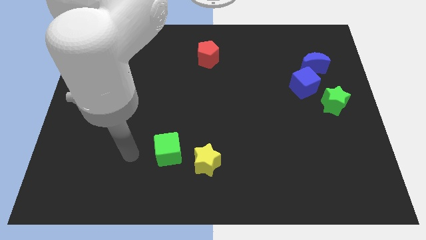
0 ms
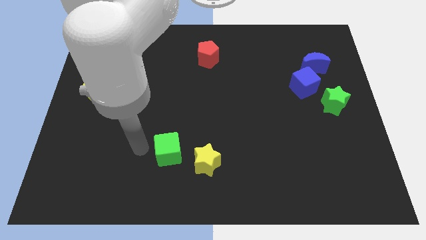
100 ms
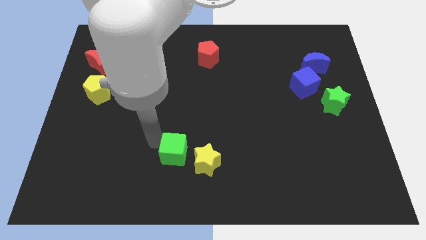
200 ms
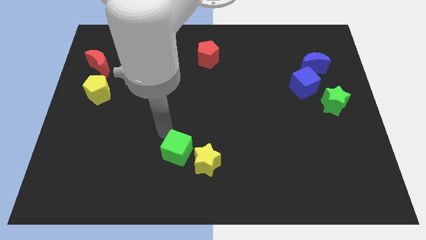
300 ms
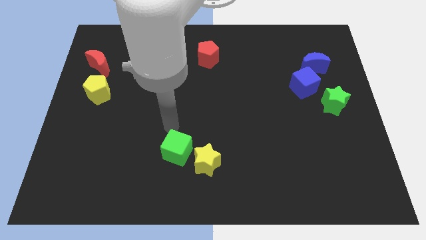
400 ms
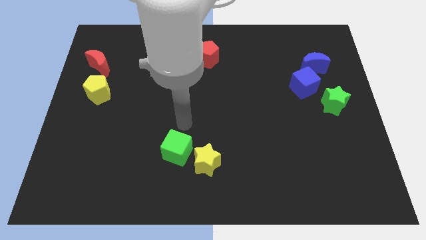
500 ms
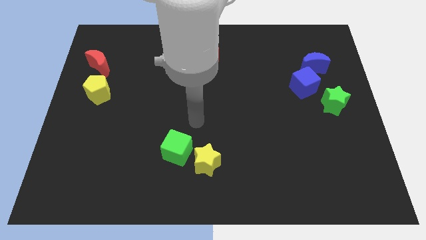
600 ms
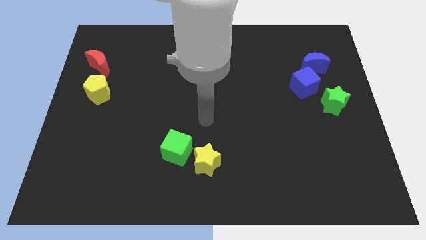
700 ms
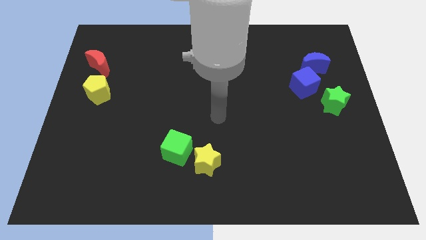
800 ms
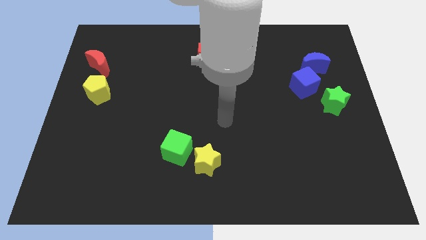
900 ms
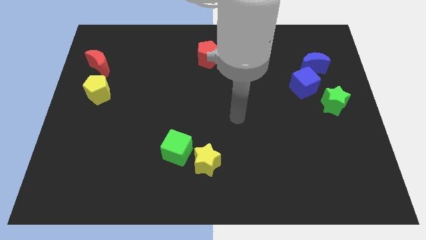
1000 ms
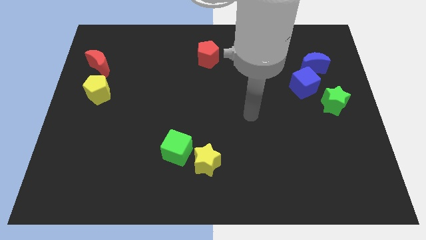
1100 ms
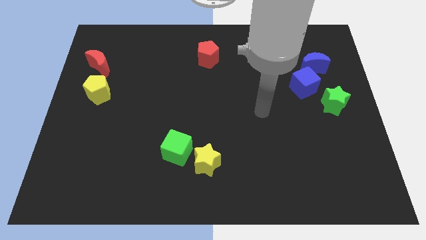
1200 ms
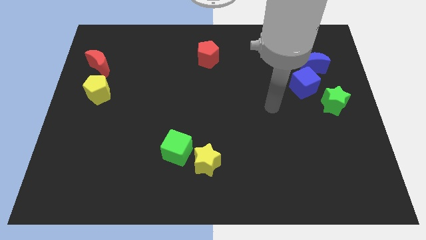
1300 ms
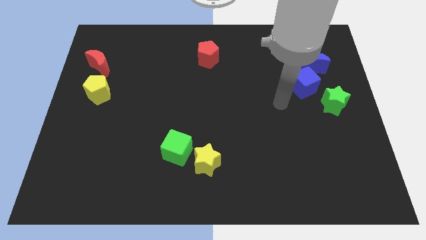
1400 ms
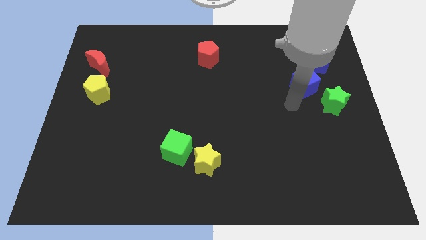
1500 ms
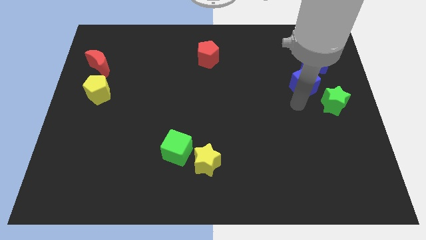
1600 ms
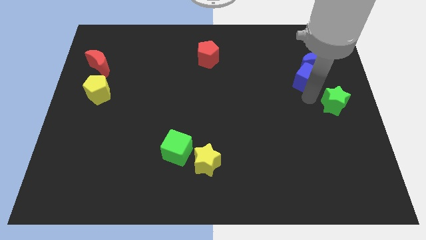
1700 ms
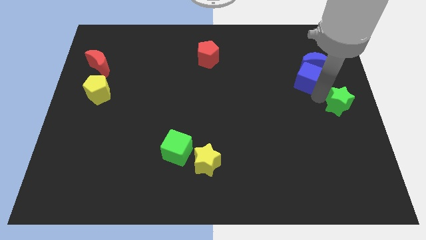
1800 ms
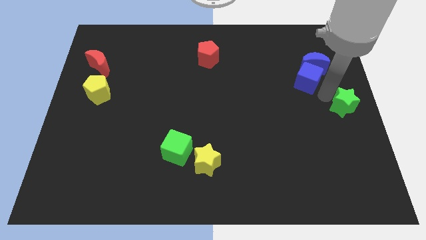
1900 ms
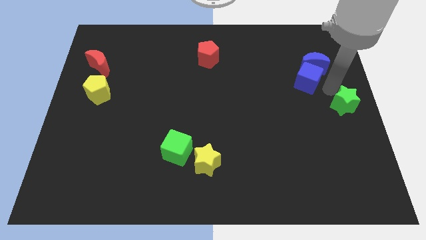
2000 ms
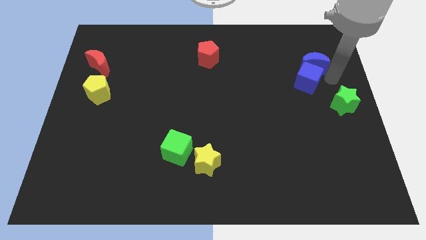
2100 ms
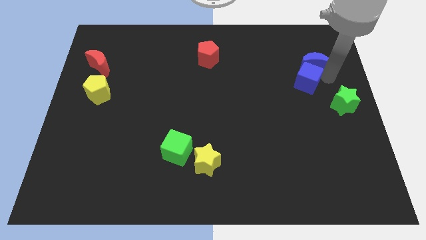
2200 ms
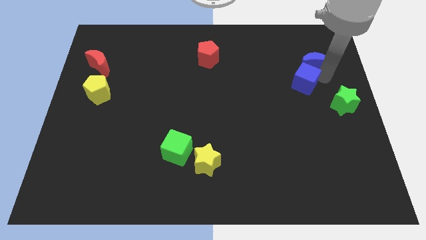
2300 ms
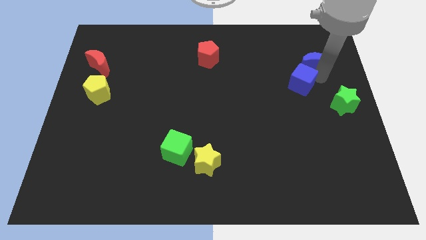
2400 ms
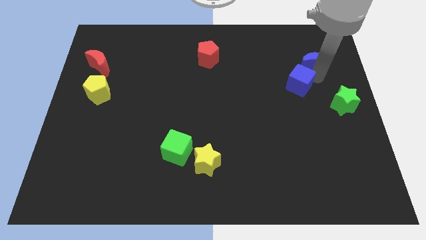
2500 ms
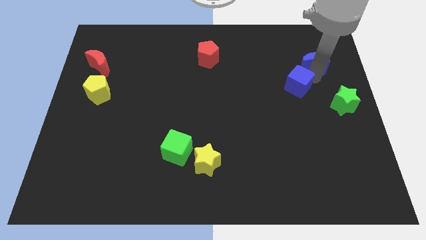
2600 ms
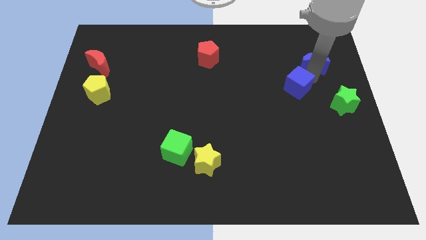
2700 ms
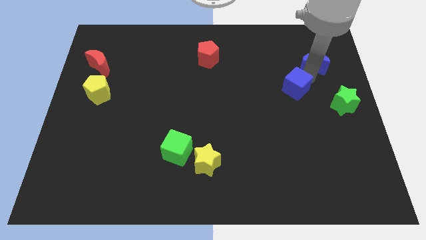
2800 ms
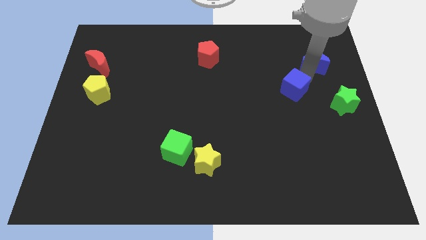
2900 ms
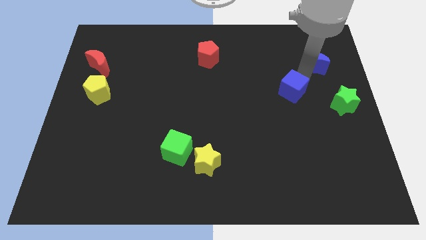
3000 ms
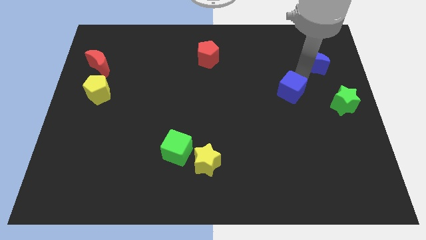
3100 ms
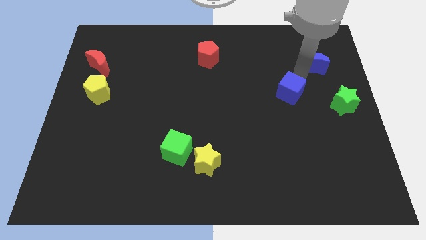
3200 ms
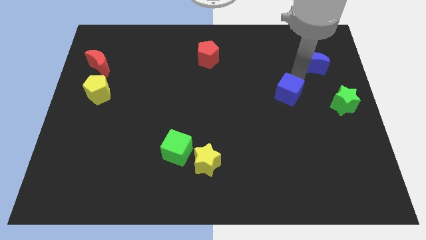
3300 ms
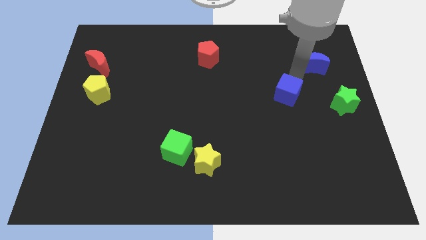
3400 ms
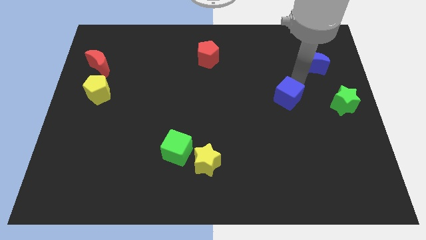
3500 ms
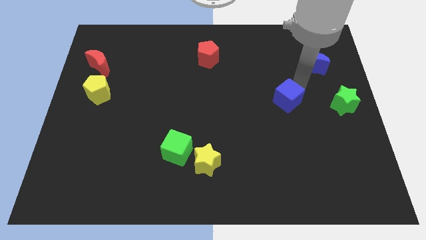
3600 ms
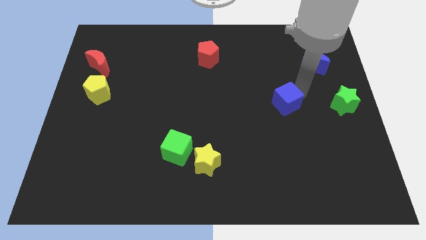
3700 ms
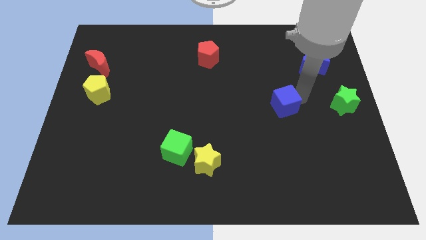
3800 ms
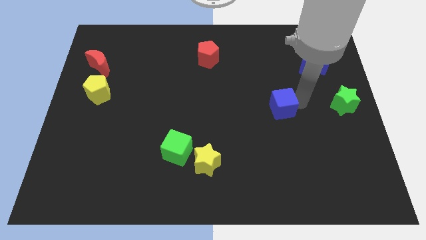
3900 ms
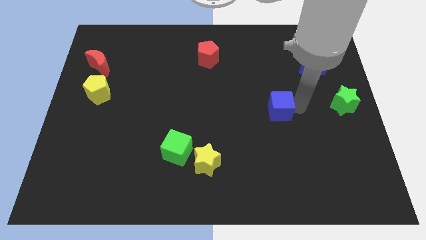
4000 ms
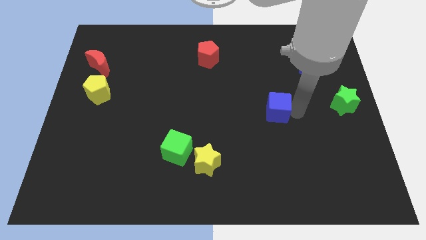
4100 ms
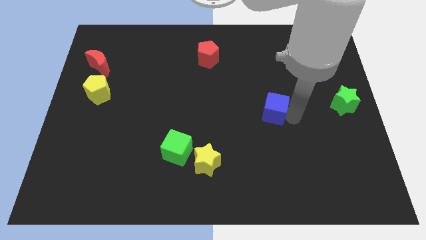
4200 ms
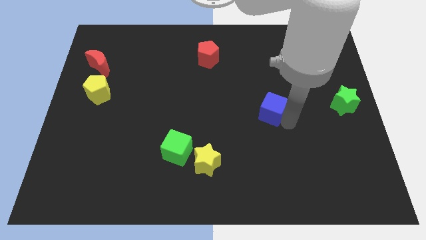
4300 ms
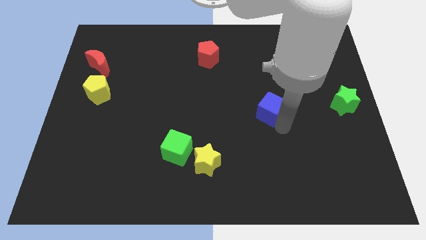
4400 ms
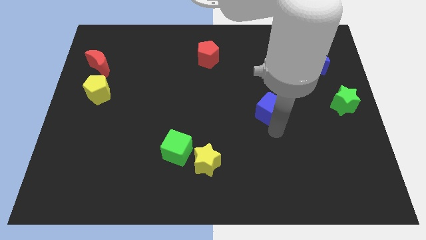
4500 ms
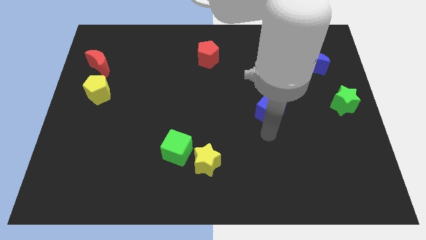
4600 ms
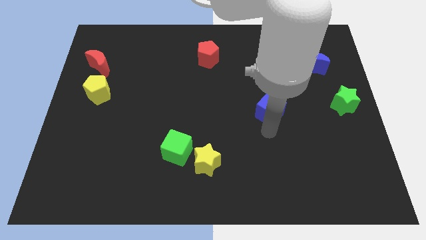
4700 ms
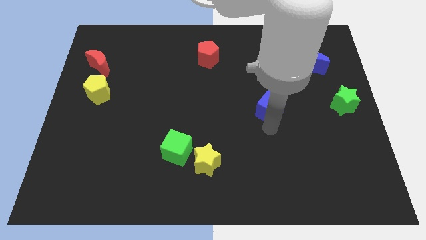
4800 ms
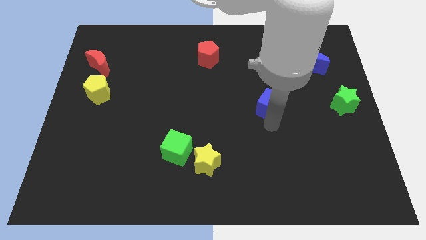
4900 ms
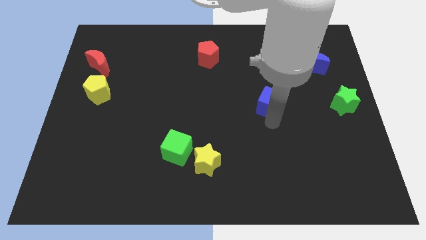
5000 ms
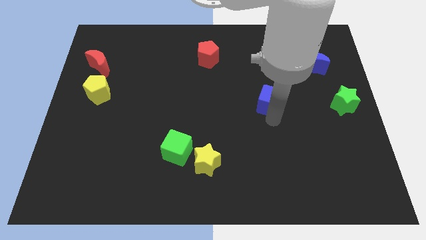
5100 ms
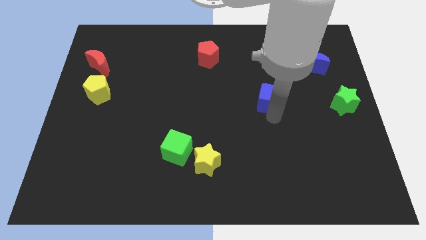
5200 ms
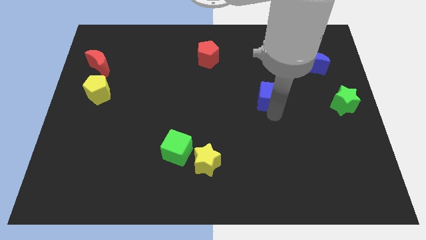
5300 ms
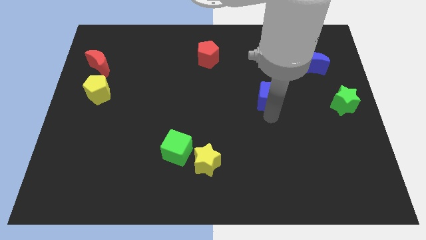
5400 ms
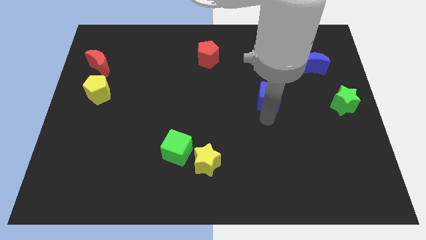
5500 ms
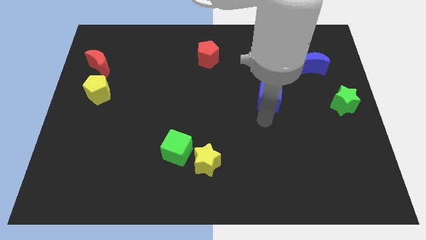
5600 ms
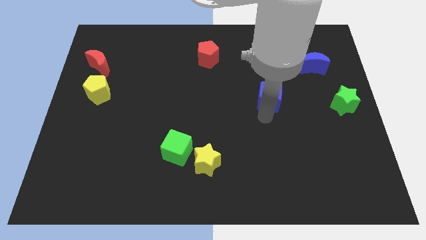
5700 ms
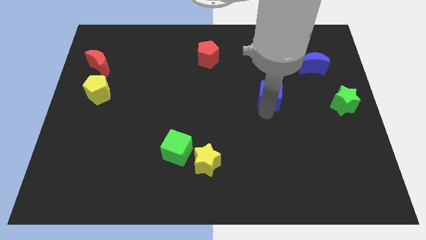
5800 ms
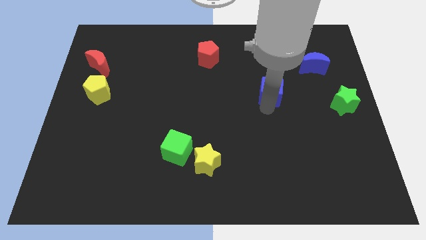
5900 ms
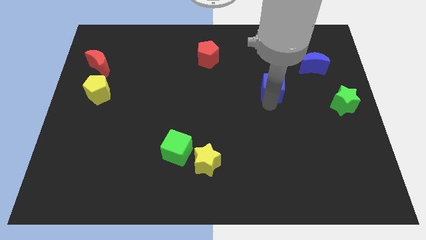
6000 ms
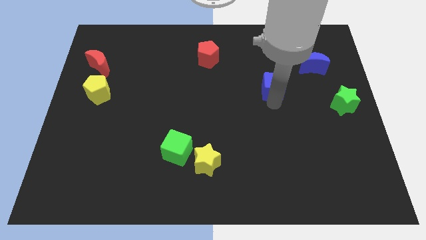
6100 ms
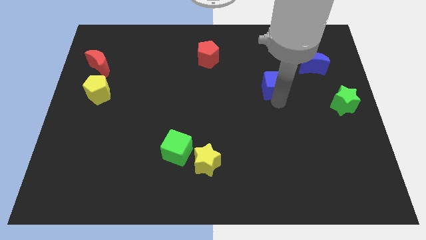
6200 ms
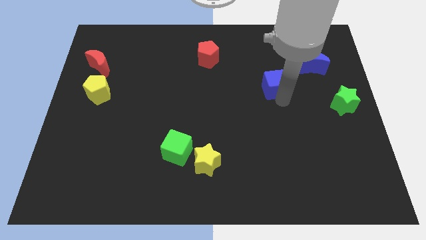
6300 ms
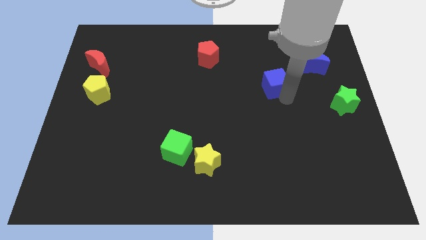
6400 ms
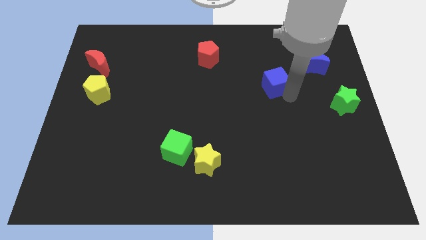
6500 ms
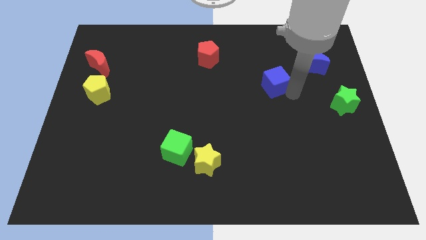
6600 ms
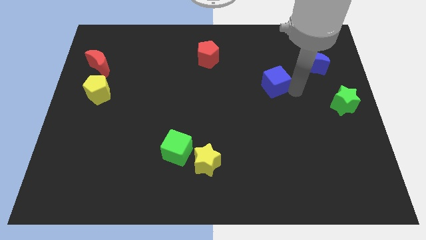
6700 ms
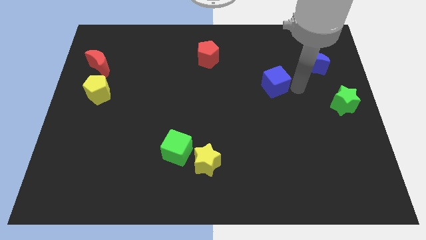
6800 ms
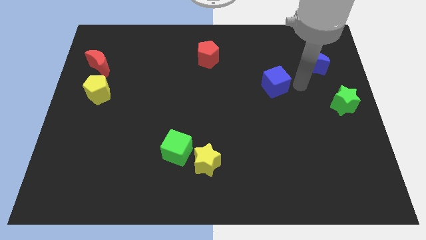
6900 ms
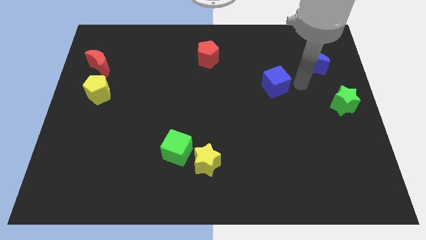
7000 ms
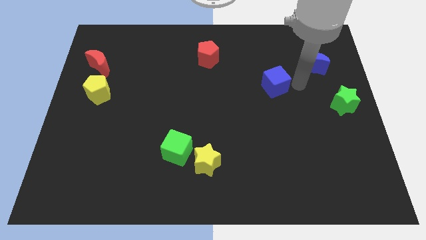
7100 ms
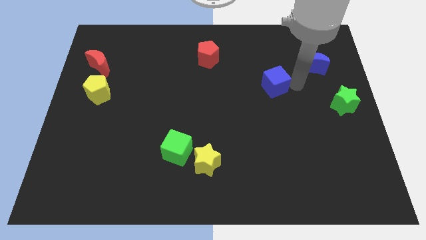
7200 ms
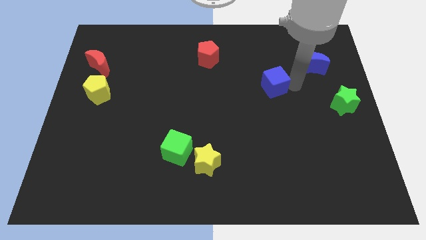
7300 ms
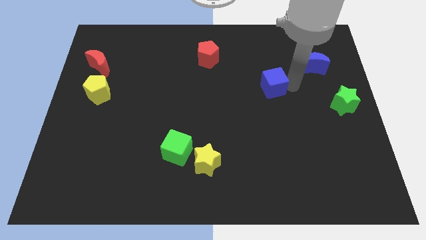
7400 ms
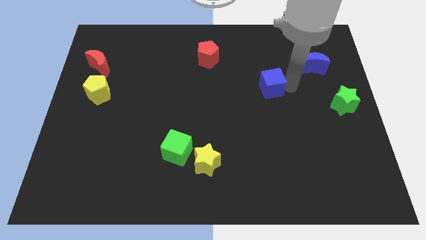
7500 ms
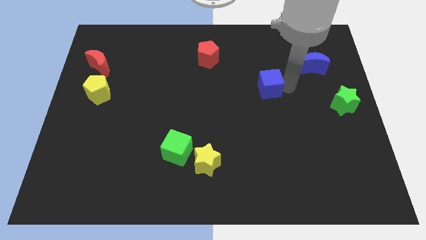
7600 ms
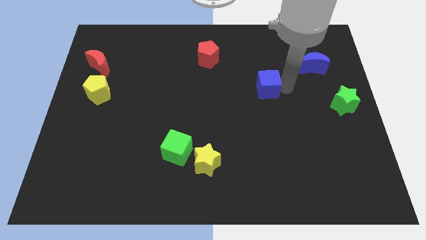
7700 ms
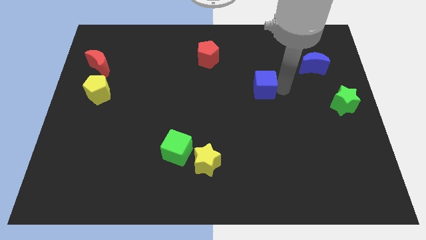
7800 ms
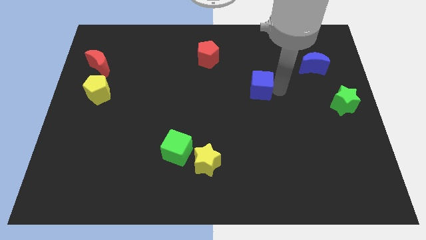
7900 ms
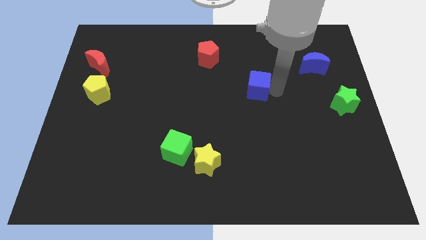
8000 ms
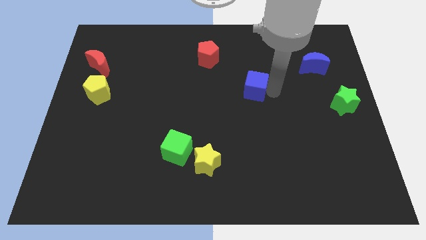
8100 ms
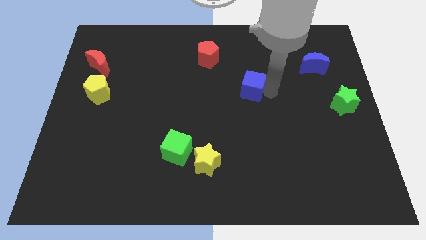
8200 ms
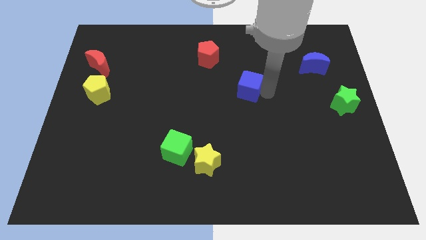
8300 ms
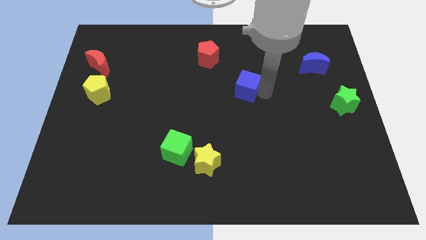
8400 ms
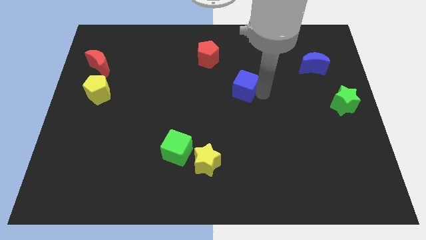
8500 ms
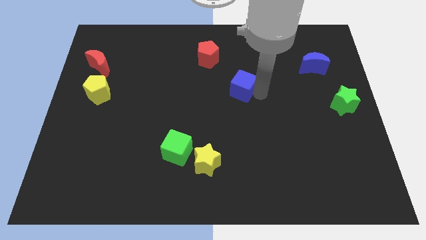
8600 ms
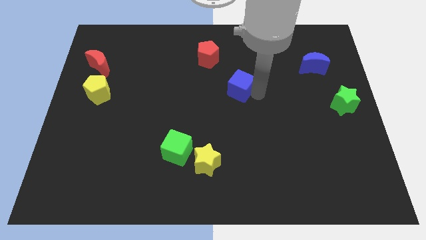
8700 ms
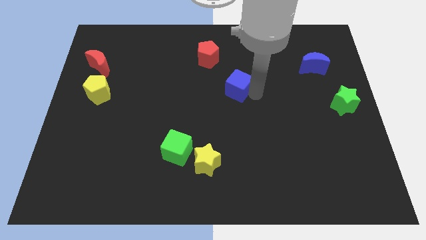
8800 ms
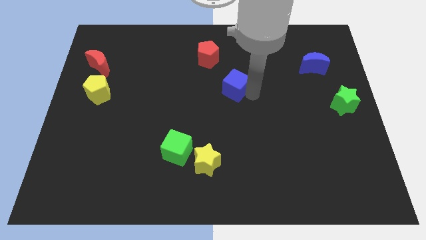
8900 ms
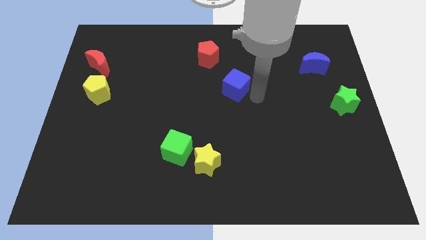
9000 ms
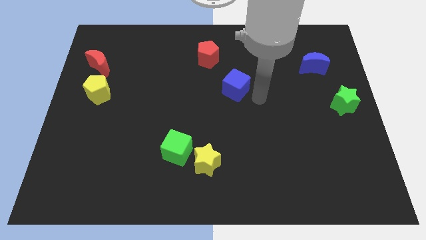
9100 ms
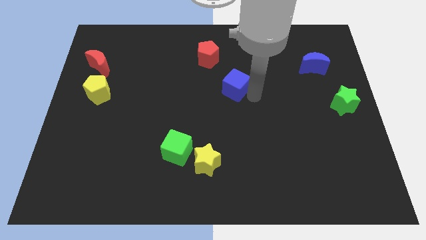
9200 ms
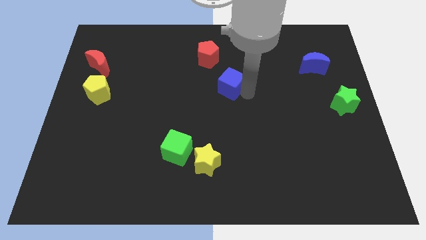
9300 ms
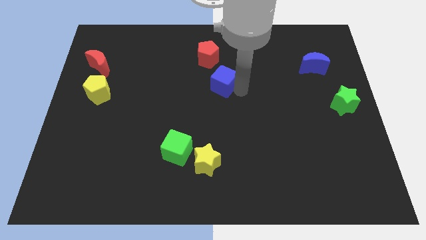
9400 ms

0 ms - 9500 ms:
slide the blue cube left
